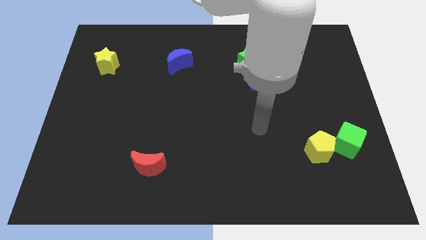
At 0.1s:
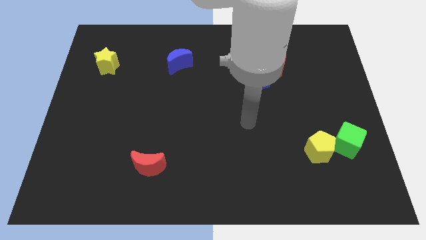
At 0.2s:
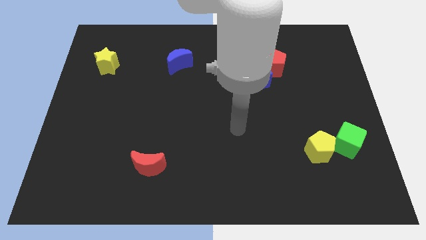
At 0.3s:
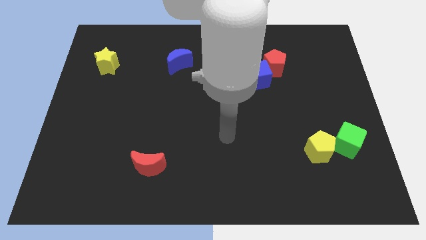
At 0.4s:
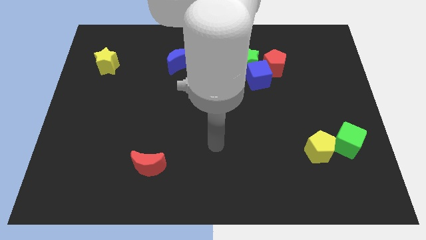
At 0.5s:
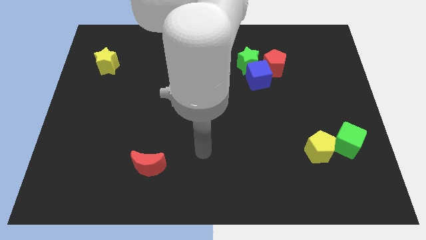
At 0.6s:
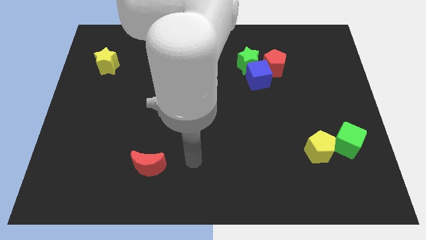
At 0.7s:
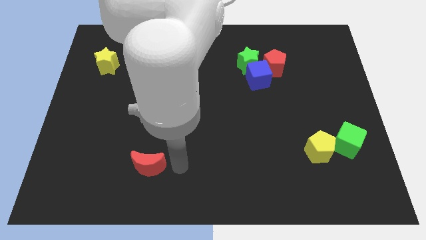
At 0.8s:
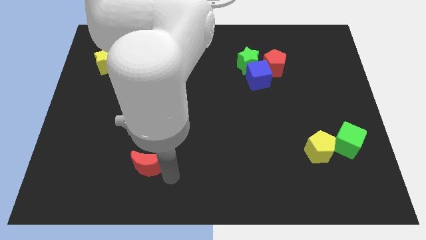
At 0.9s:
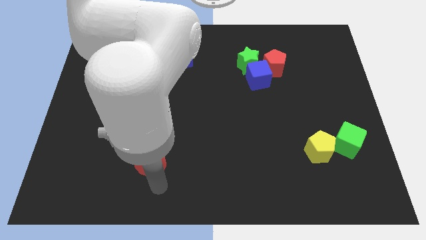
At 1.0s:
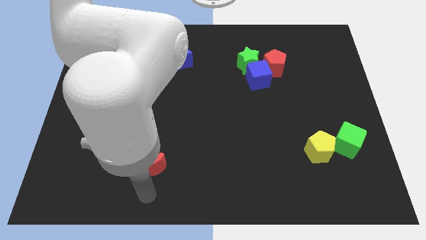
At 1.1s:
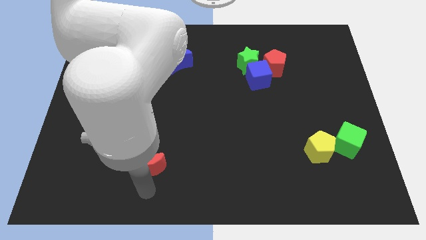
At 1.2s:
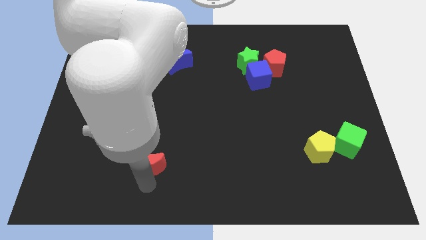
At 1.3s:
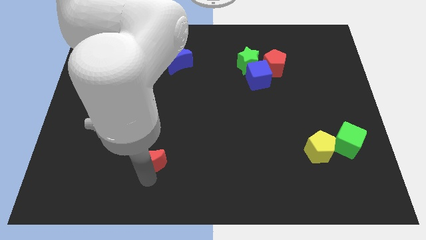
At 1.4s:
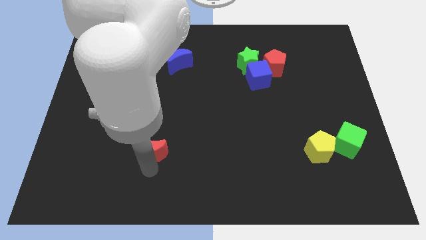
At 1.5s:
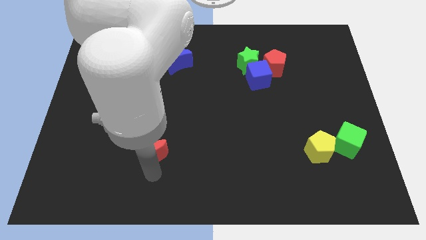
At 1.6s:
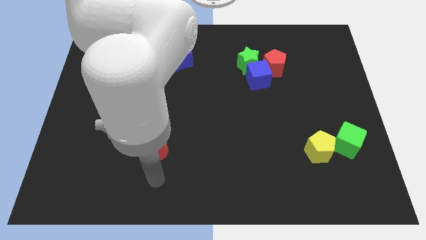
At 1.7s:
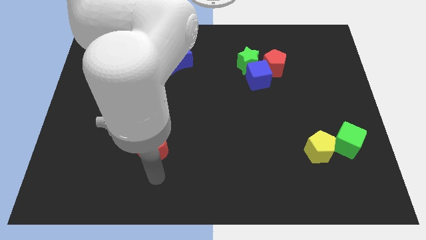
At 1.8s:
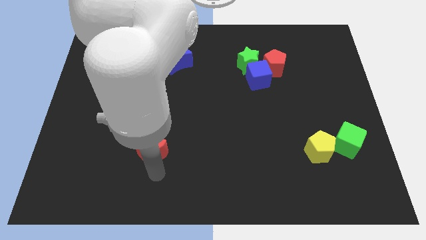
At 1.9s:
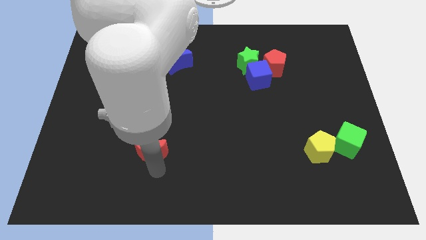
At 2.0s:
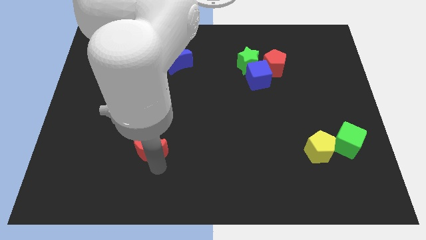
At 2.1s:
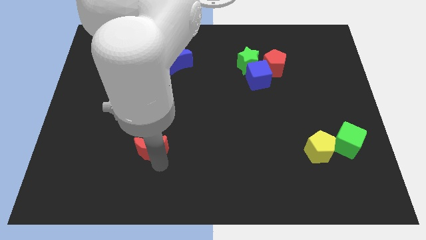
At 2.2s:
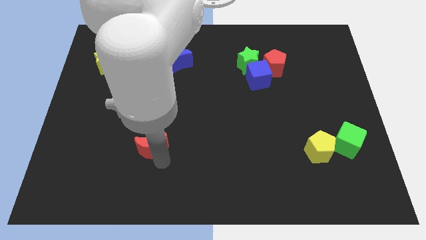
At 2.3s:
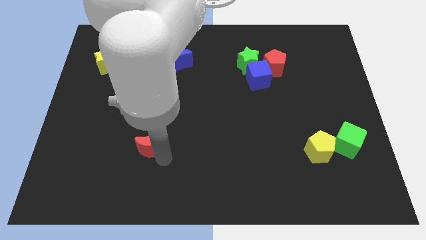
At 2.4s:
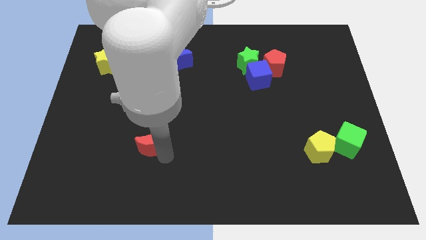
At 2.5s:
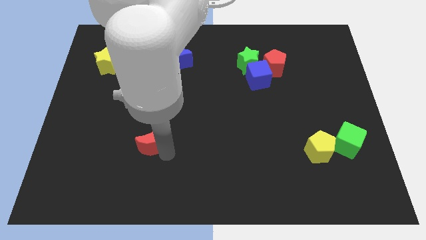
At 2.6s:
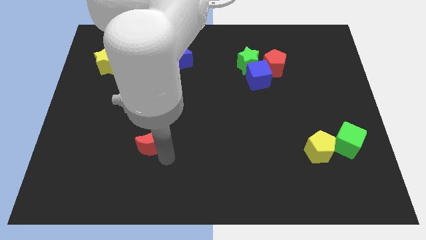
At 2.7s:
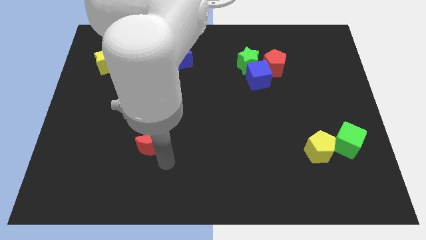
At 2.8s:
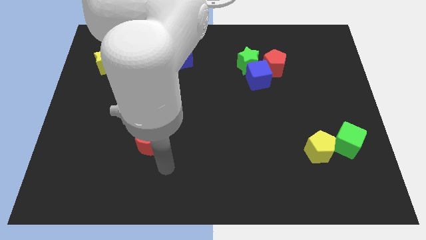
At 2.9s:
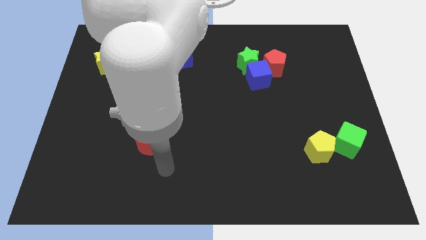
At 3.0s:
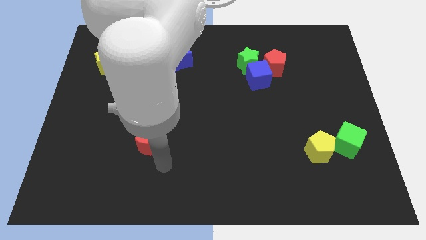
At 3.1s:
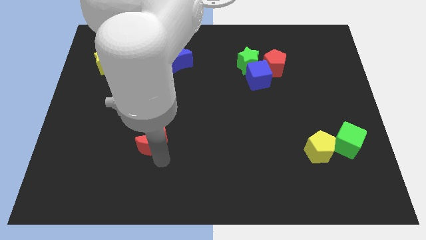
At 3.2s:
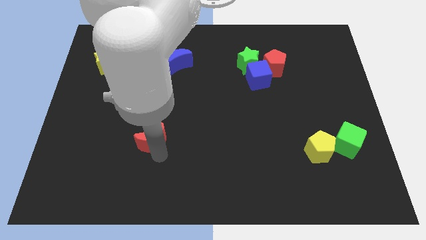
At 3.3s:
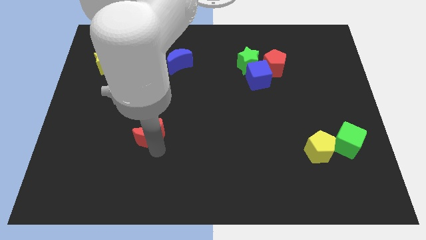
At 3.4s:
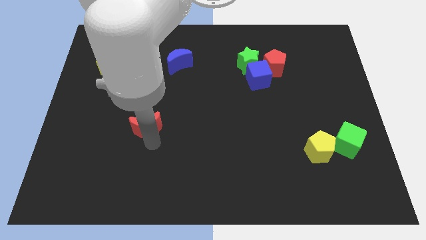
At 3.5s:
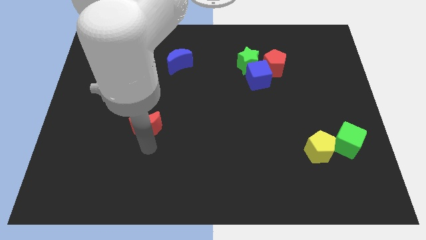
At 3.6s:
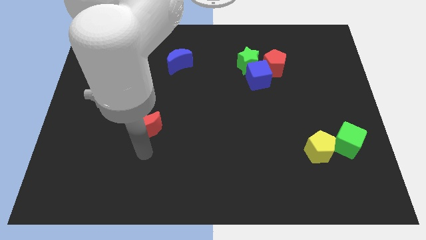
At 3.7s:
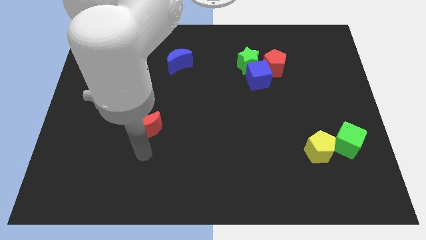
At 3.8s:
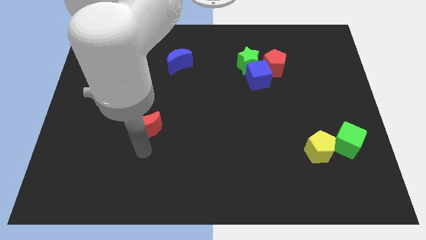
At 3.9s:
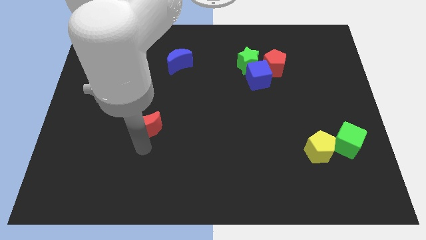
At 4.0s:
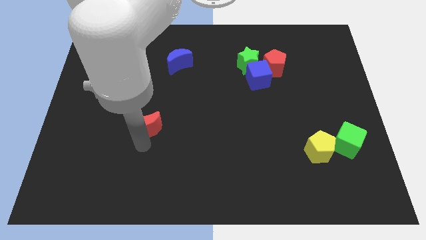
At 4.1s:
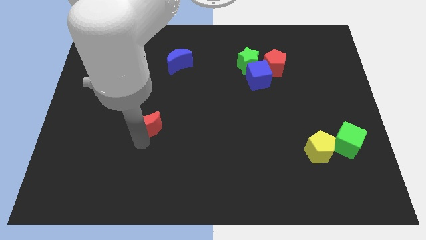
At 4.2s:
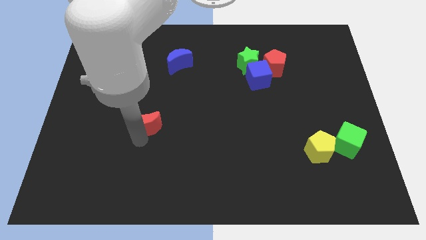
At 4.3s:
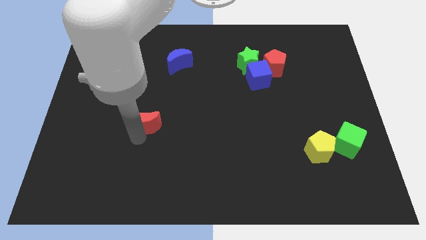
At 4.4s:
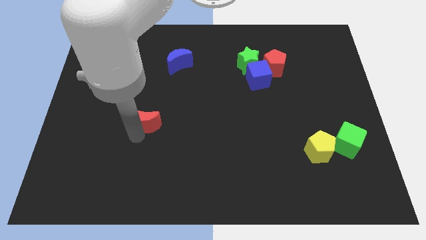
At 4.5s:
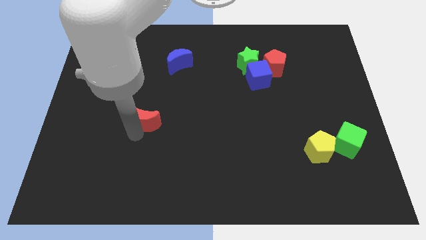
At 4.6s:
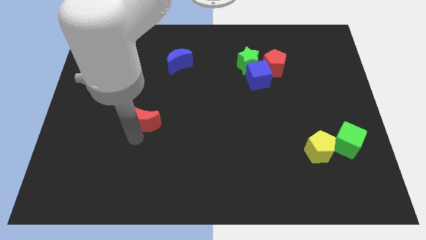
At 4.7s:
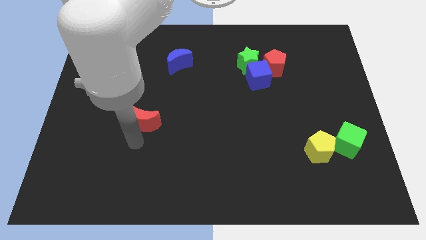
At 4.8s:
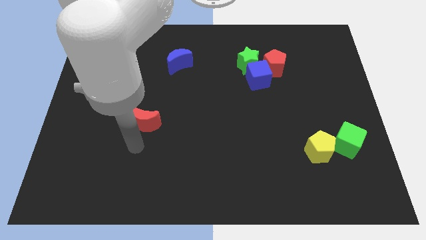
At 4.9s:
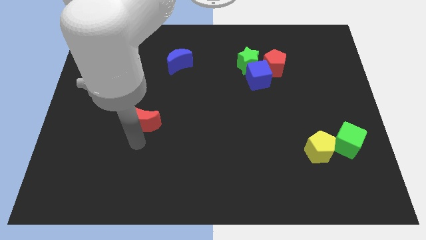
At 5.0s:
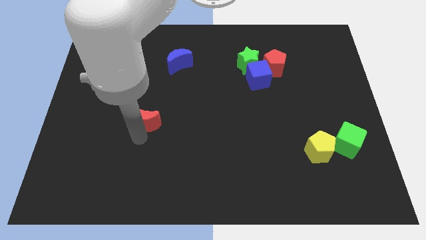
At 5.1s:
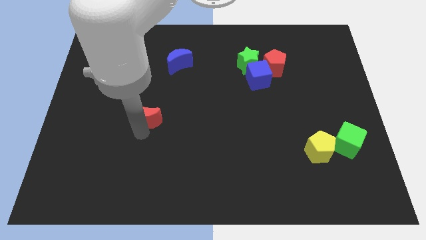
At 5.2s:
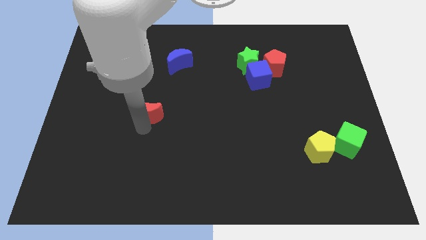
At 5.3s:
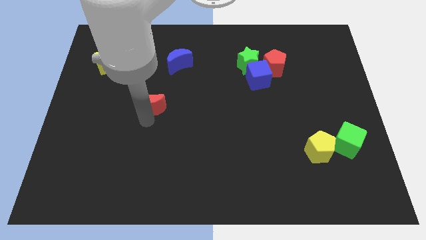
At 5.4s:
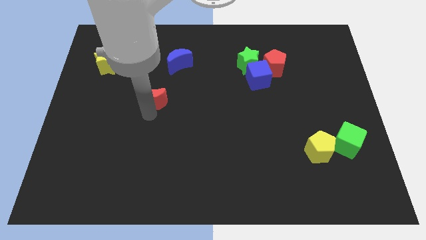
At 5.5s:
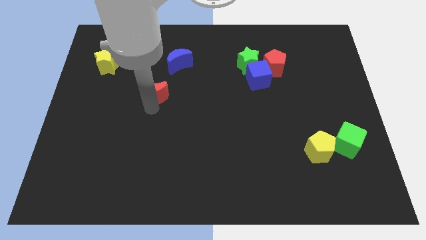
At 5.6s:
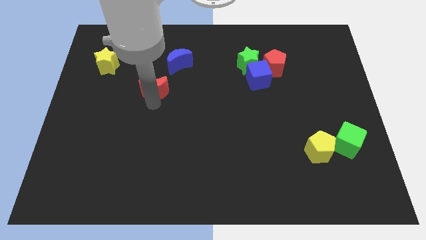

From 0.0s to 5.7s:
slide the red moon up

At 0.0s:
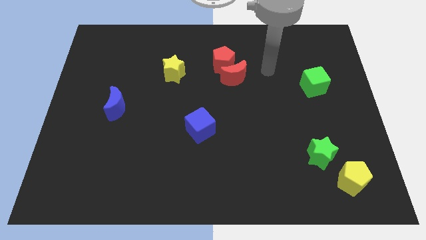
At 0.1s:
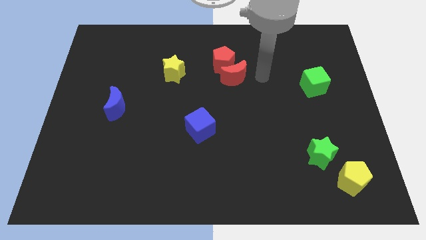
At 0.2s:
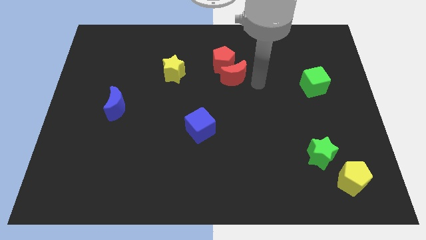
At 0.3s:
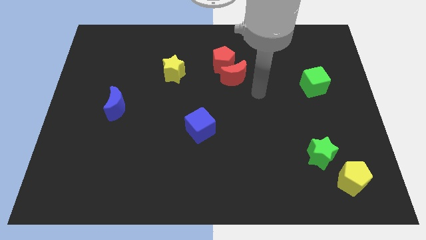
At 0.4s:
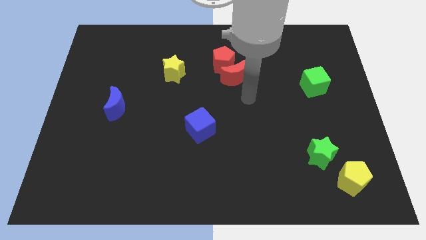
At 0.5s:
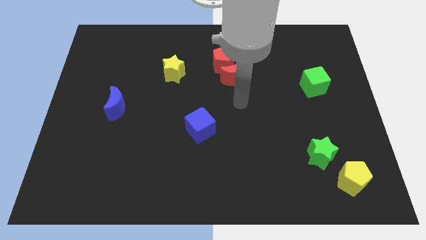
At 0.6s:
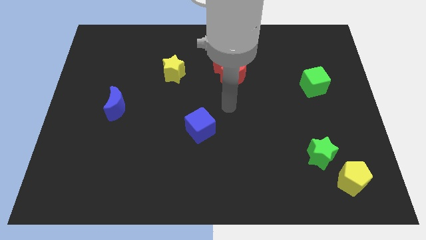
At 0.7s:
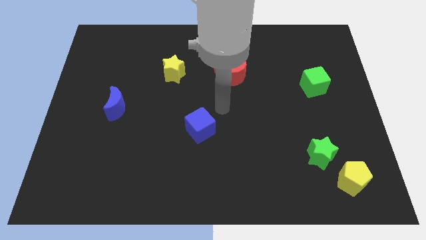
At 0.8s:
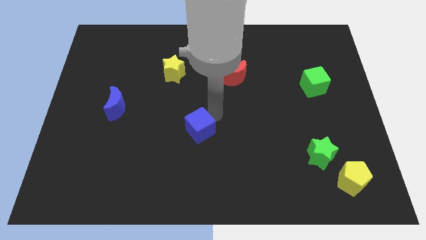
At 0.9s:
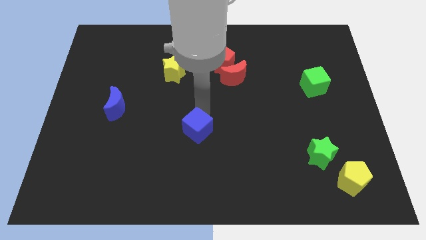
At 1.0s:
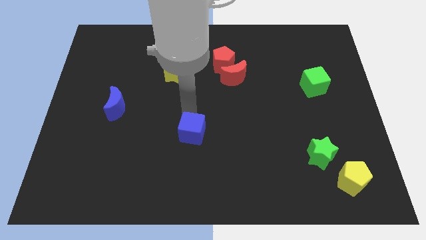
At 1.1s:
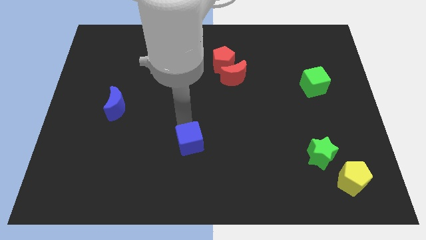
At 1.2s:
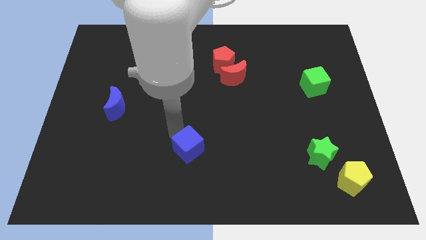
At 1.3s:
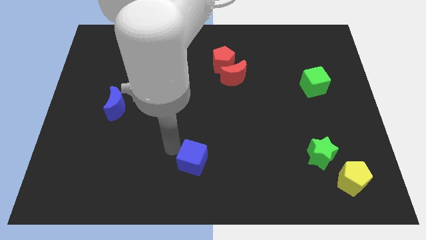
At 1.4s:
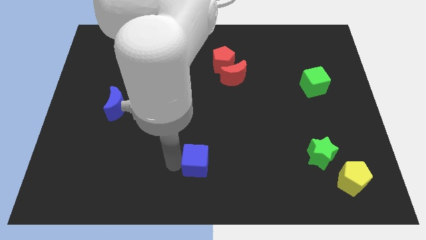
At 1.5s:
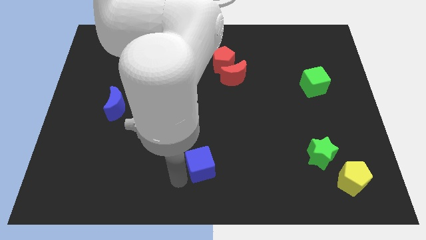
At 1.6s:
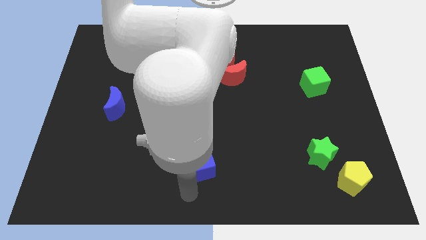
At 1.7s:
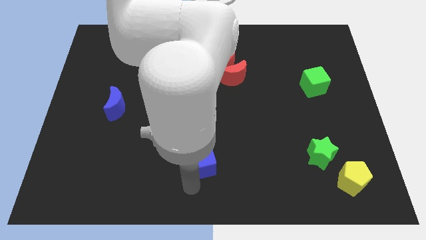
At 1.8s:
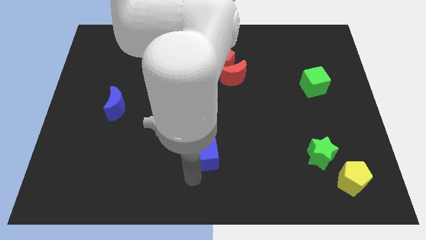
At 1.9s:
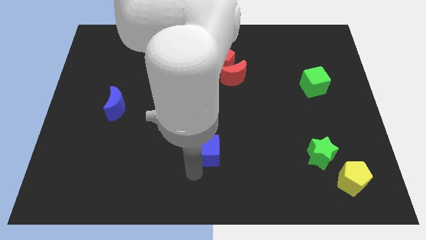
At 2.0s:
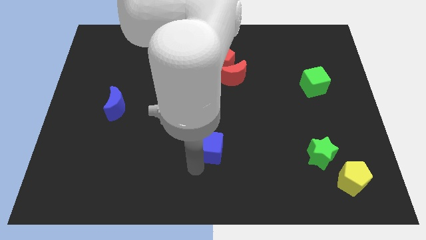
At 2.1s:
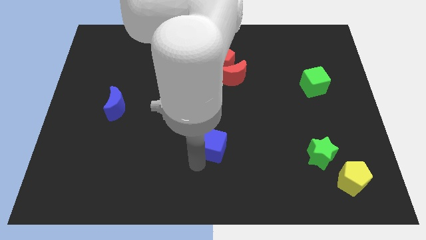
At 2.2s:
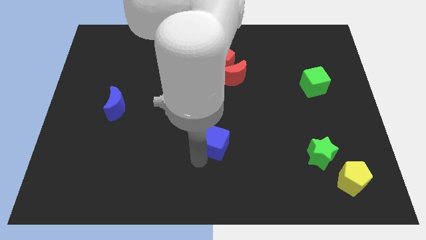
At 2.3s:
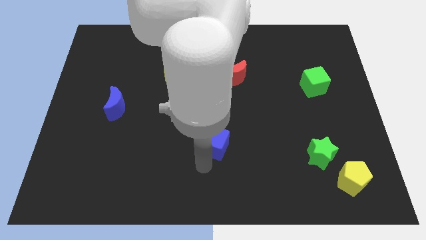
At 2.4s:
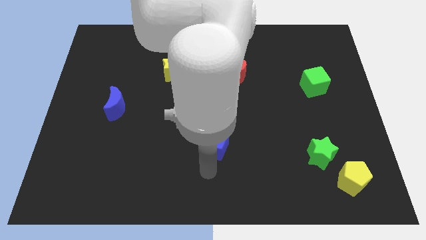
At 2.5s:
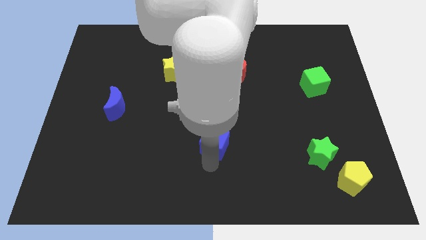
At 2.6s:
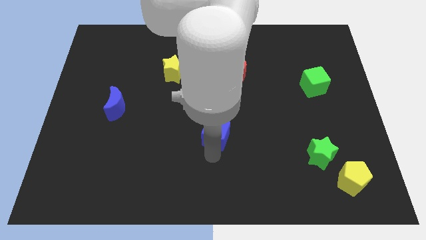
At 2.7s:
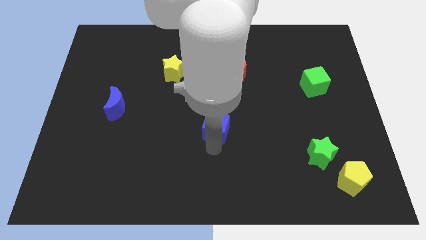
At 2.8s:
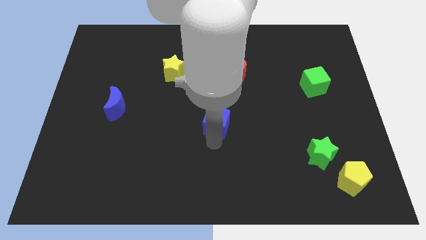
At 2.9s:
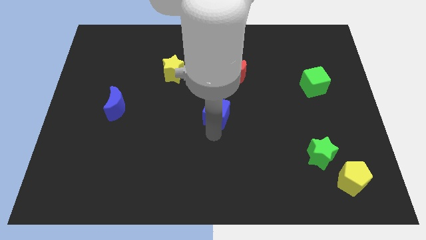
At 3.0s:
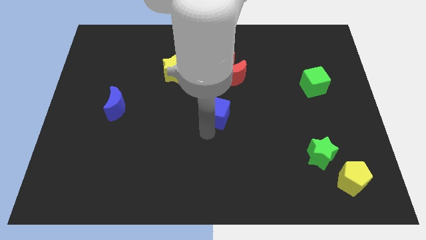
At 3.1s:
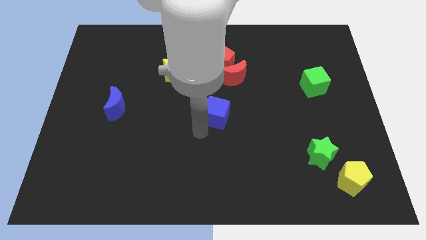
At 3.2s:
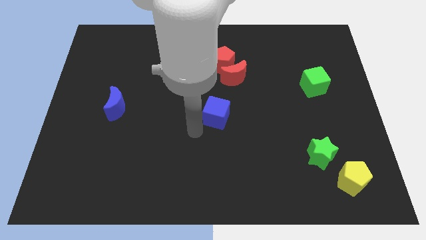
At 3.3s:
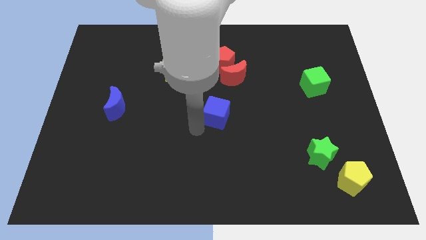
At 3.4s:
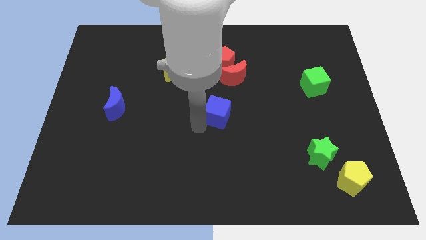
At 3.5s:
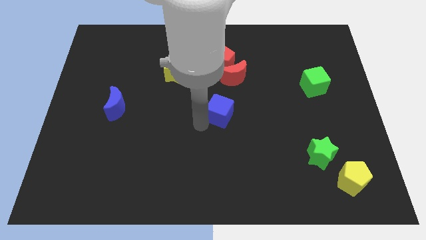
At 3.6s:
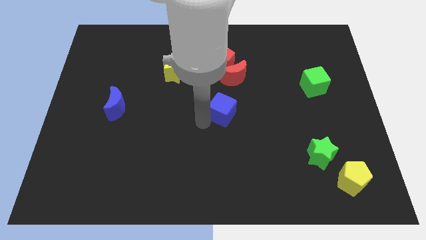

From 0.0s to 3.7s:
slide the blue cube a little bit up and right
